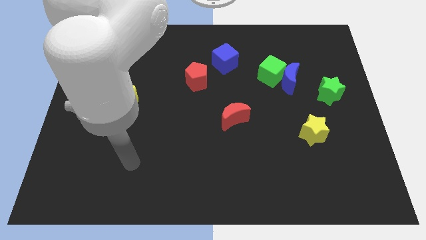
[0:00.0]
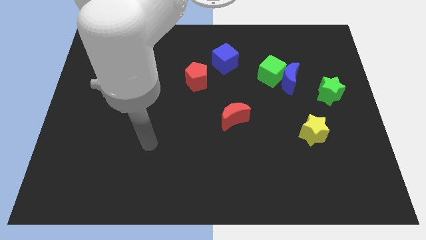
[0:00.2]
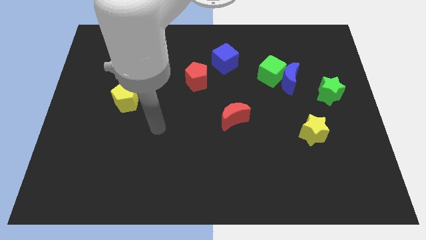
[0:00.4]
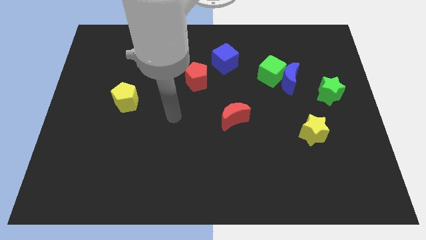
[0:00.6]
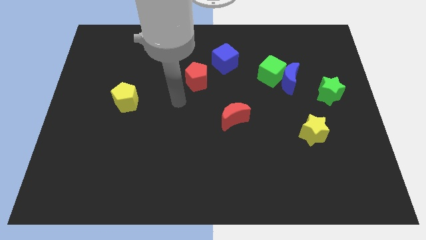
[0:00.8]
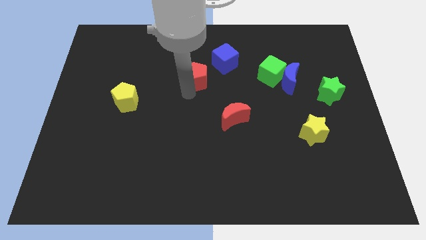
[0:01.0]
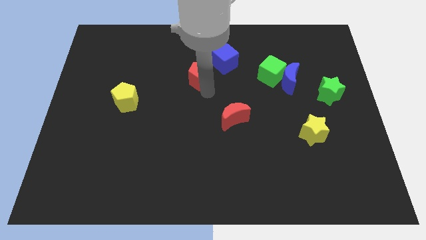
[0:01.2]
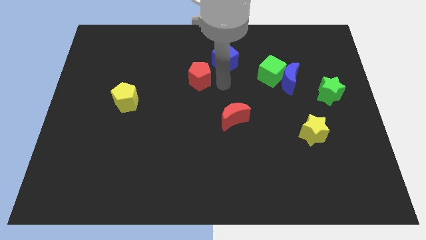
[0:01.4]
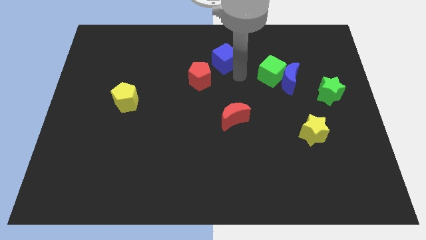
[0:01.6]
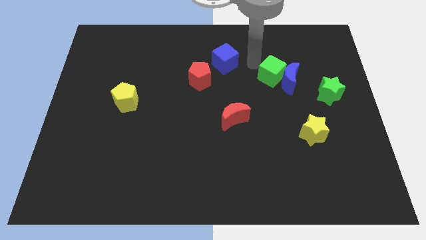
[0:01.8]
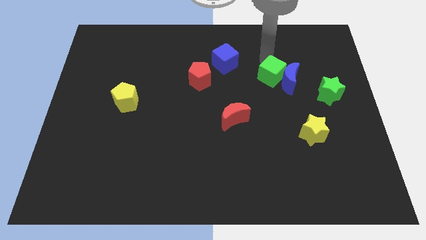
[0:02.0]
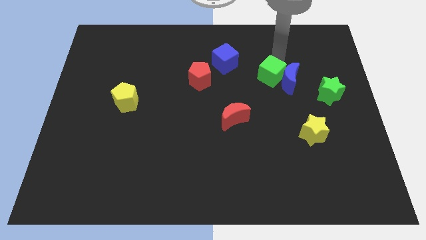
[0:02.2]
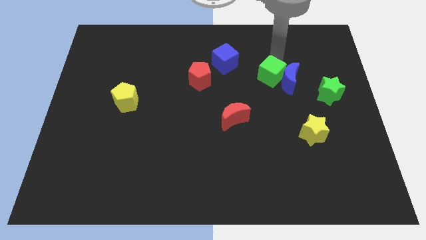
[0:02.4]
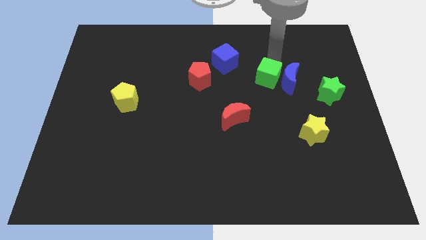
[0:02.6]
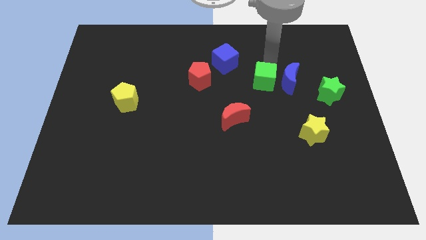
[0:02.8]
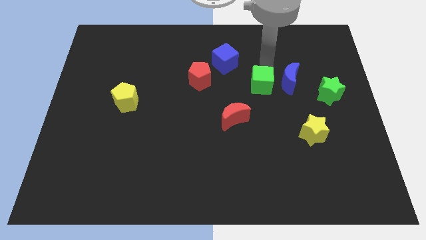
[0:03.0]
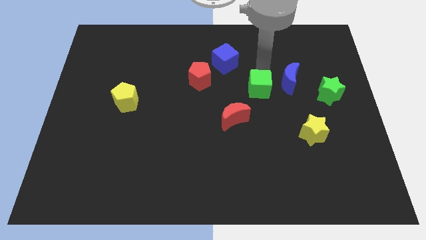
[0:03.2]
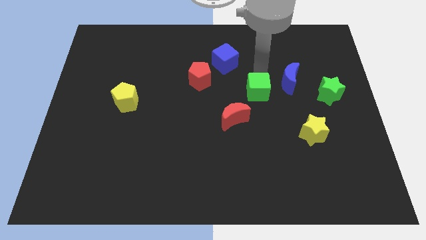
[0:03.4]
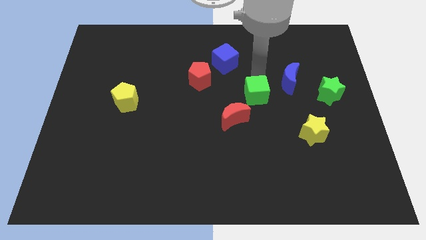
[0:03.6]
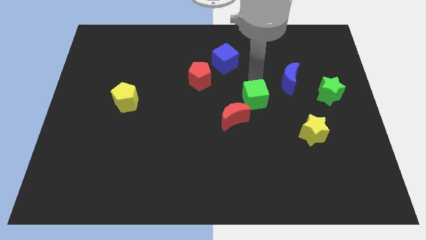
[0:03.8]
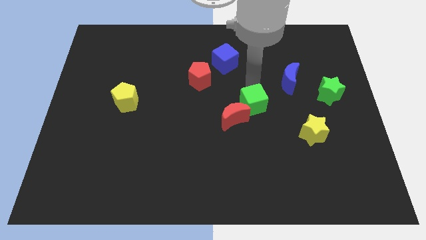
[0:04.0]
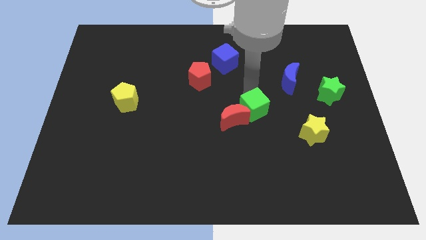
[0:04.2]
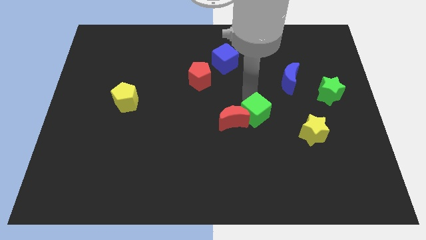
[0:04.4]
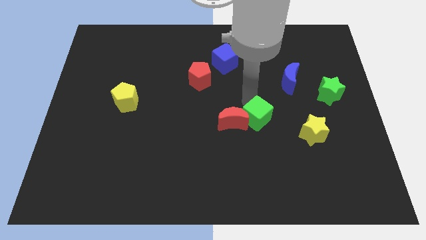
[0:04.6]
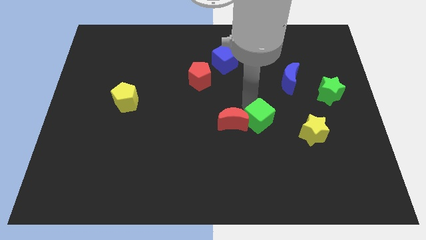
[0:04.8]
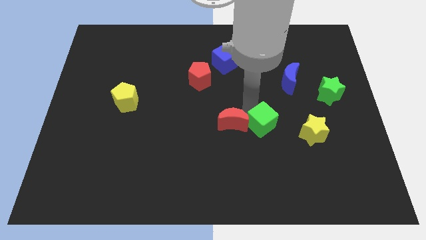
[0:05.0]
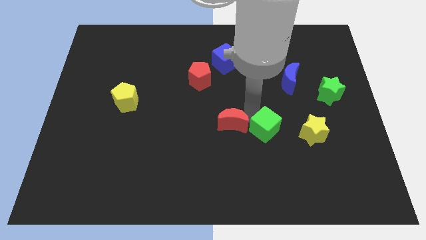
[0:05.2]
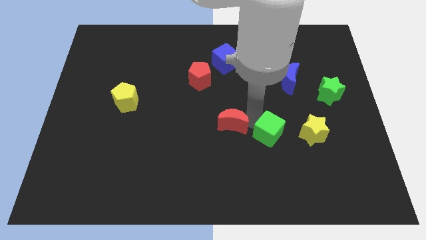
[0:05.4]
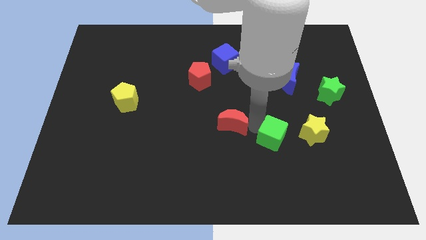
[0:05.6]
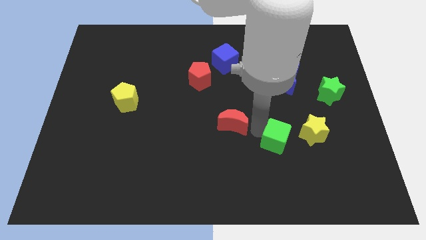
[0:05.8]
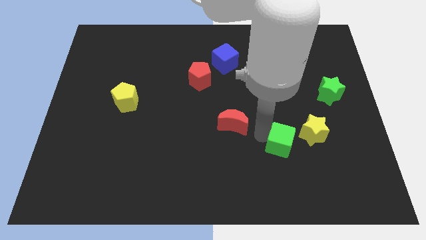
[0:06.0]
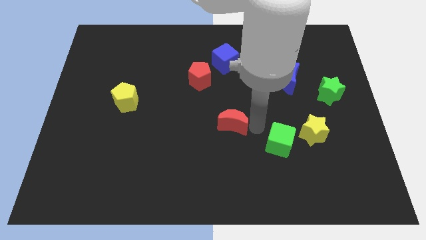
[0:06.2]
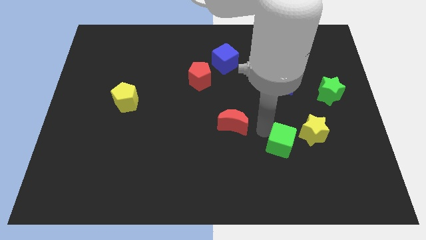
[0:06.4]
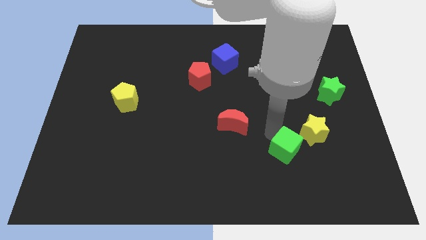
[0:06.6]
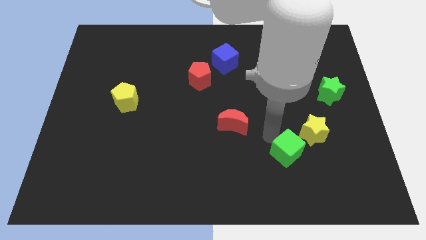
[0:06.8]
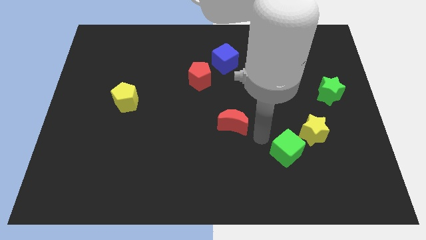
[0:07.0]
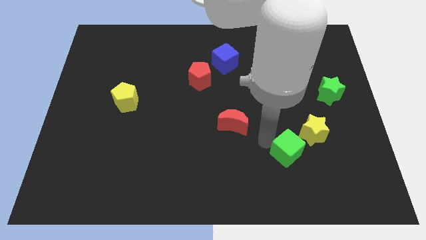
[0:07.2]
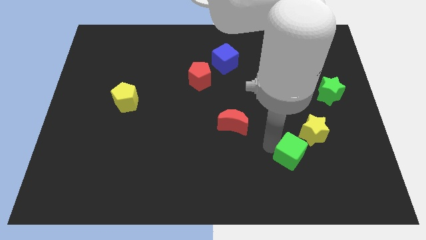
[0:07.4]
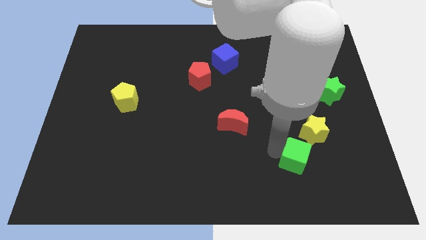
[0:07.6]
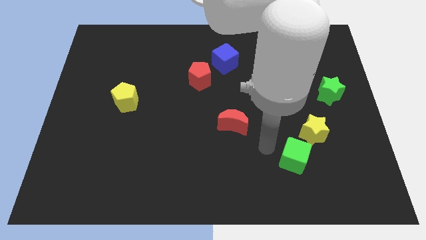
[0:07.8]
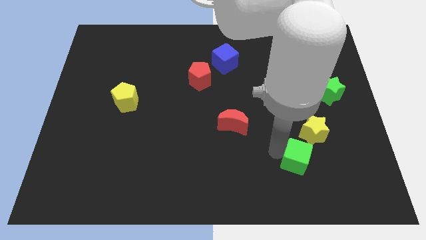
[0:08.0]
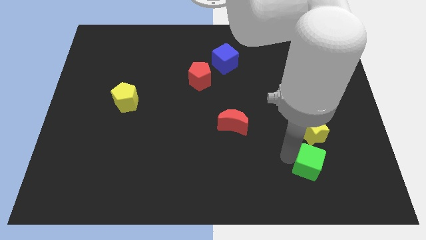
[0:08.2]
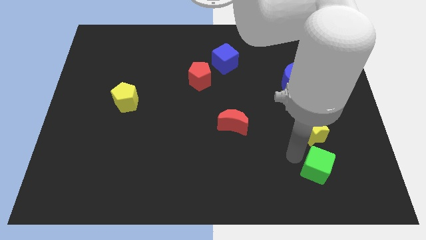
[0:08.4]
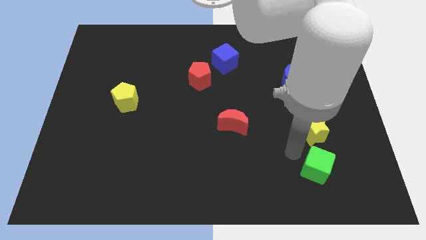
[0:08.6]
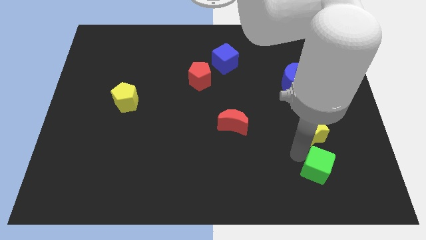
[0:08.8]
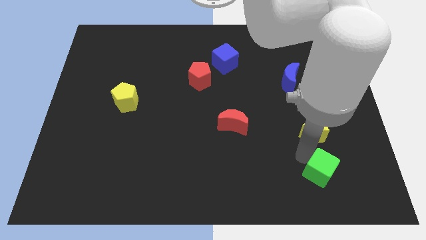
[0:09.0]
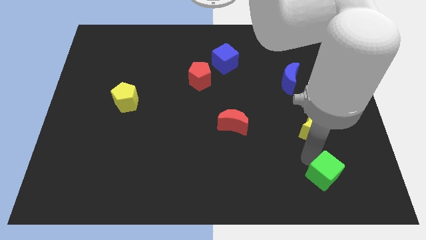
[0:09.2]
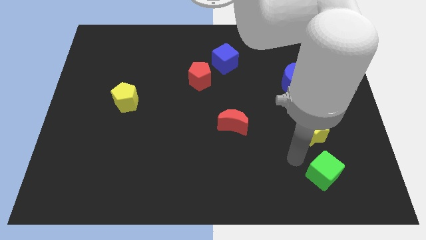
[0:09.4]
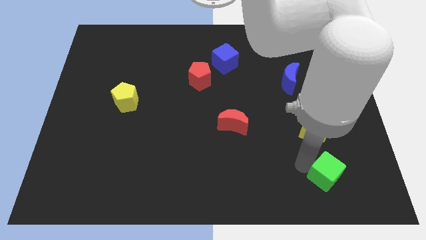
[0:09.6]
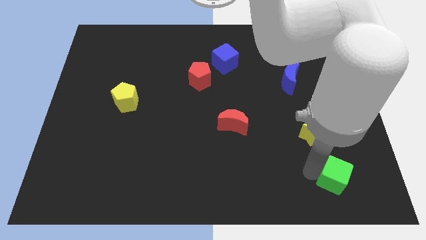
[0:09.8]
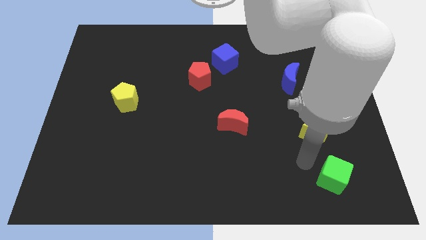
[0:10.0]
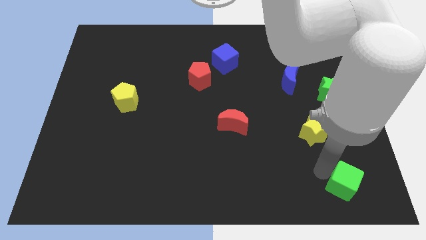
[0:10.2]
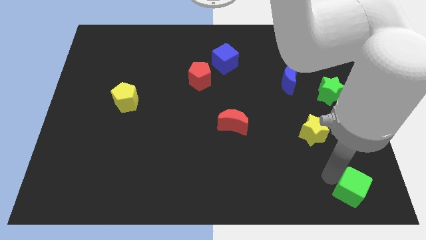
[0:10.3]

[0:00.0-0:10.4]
move the green cube to the bottom right corner

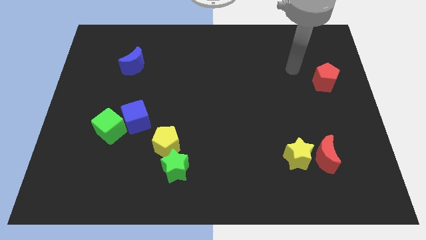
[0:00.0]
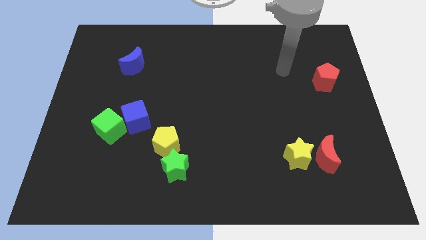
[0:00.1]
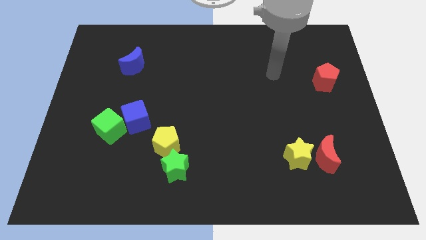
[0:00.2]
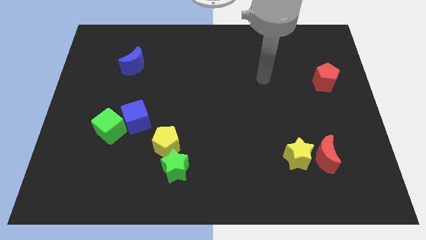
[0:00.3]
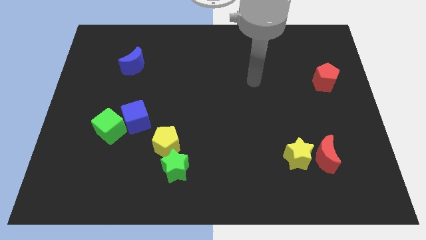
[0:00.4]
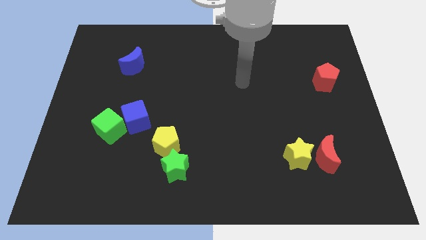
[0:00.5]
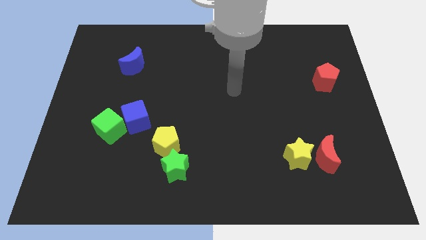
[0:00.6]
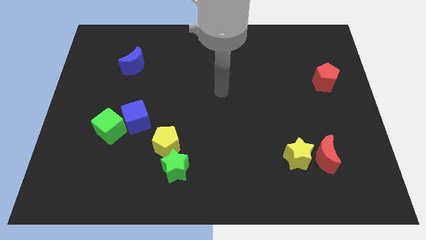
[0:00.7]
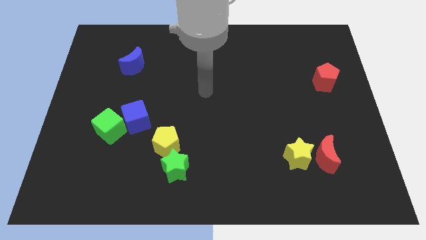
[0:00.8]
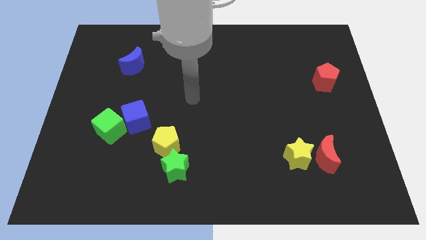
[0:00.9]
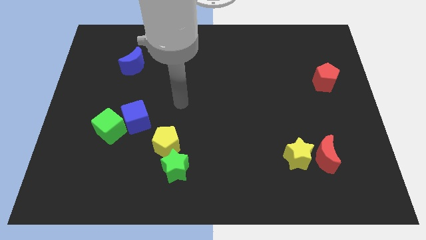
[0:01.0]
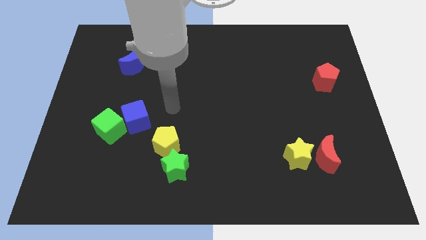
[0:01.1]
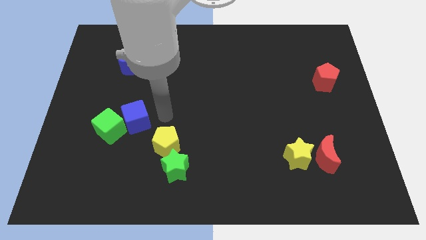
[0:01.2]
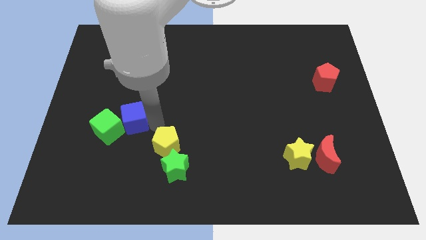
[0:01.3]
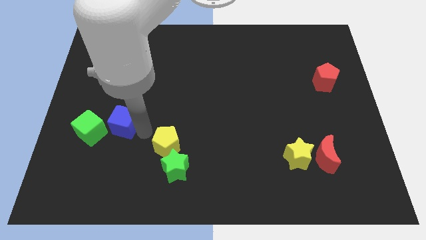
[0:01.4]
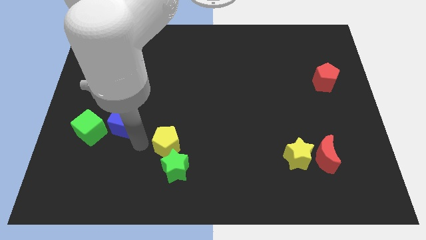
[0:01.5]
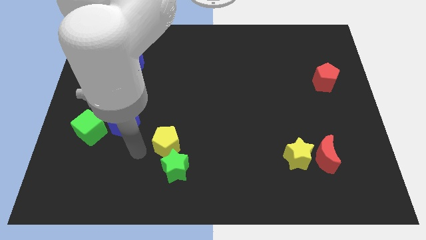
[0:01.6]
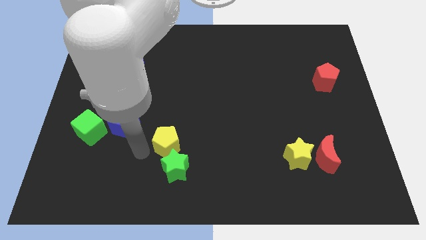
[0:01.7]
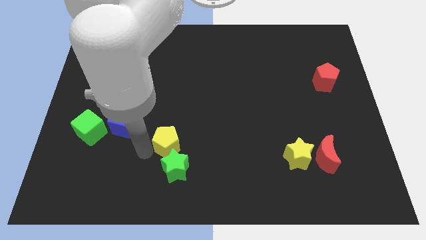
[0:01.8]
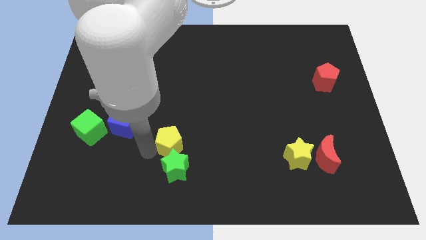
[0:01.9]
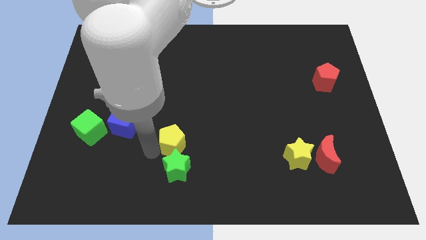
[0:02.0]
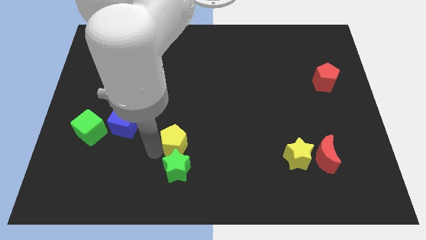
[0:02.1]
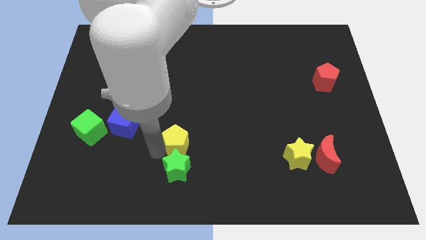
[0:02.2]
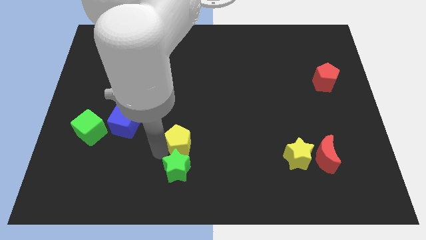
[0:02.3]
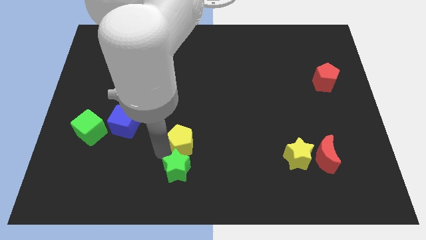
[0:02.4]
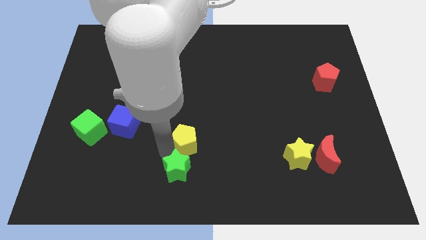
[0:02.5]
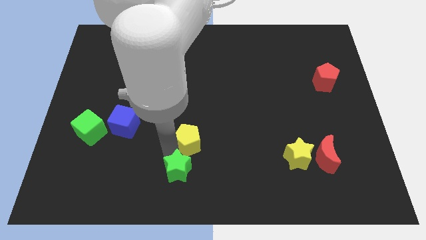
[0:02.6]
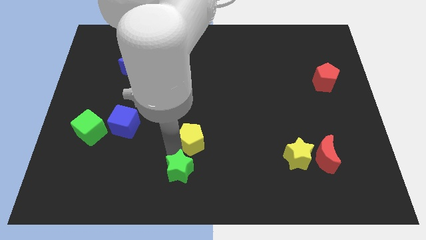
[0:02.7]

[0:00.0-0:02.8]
put the yellow pentagon to the middle
